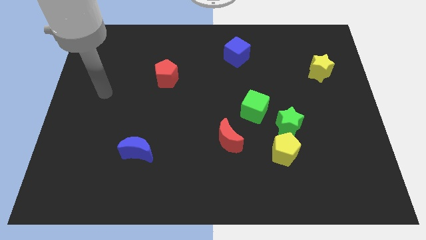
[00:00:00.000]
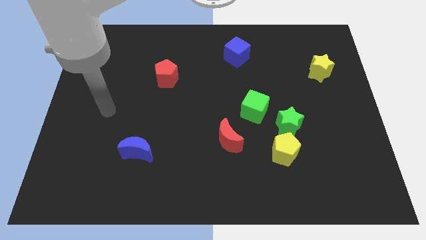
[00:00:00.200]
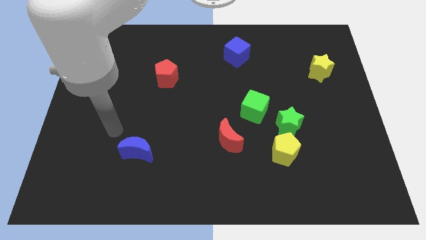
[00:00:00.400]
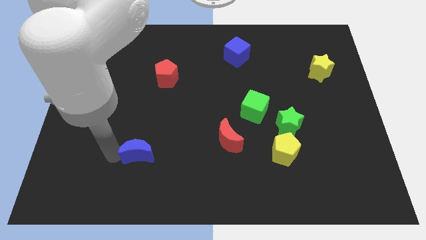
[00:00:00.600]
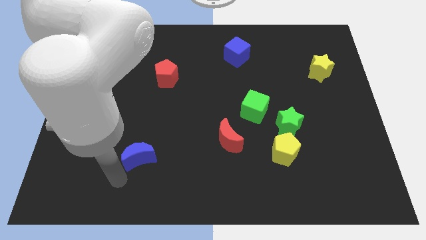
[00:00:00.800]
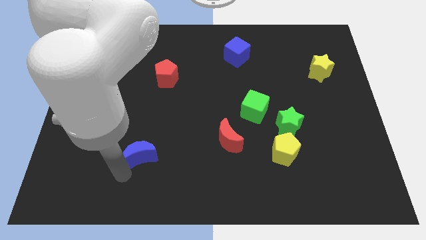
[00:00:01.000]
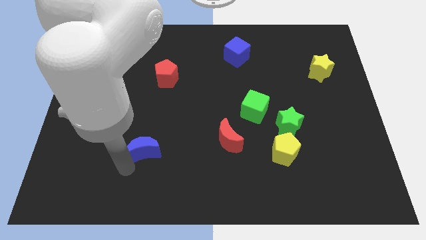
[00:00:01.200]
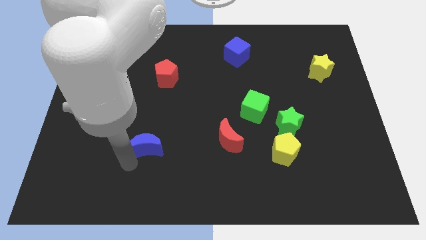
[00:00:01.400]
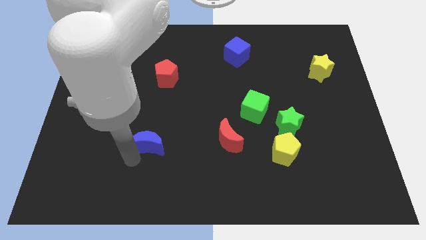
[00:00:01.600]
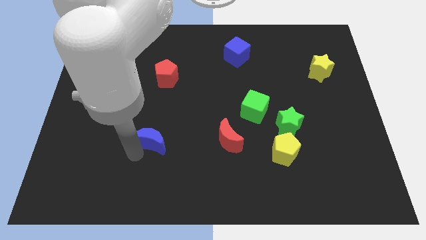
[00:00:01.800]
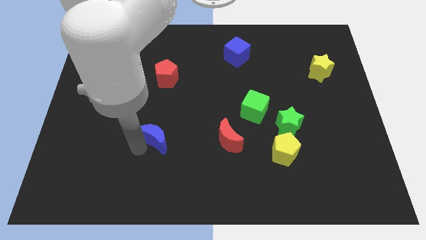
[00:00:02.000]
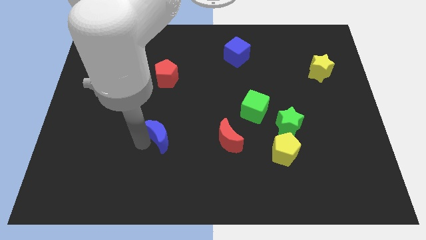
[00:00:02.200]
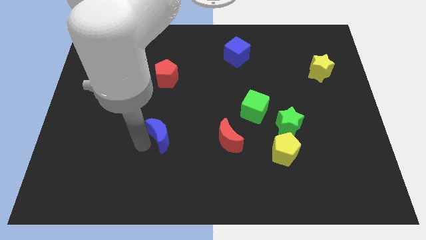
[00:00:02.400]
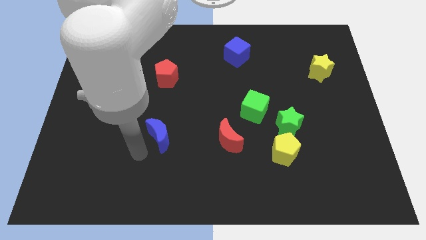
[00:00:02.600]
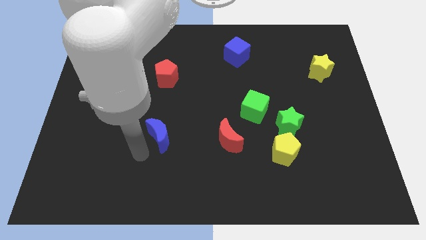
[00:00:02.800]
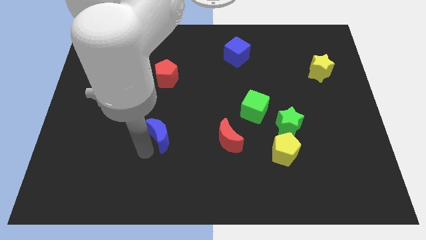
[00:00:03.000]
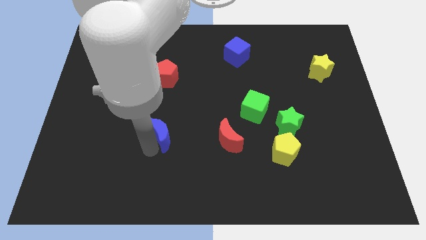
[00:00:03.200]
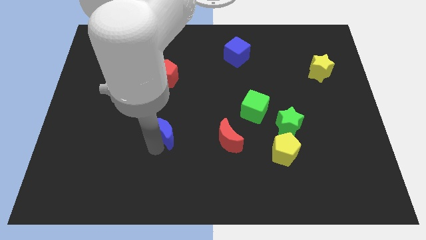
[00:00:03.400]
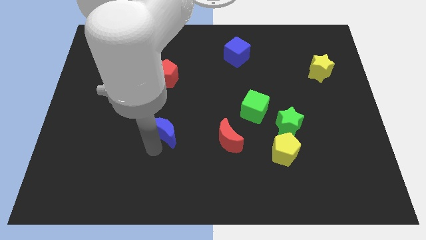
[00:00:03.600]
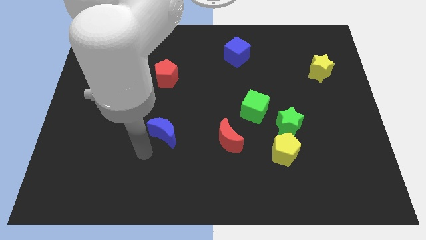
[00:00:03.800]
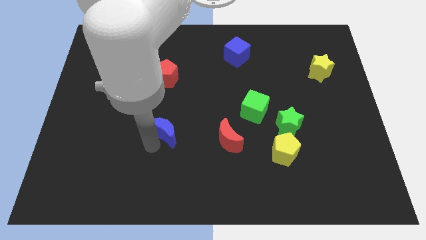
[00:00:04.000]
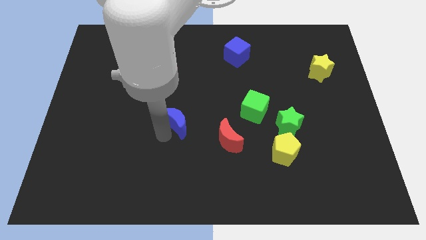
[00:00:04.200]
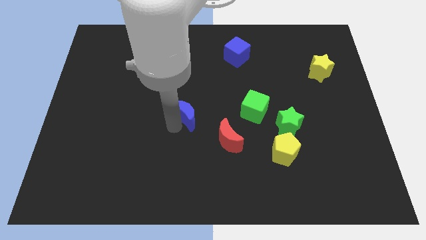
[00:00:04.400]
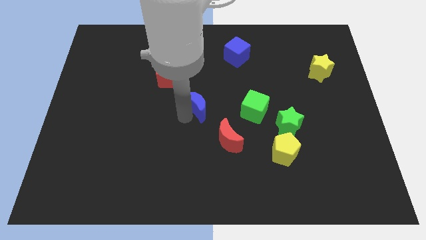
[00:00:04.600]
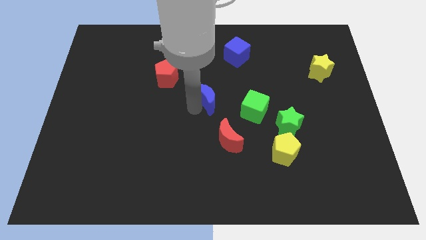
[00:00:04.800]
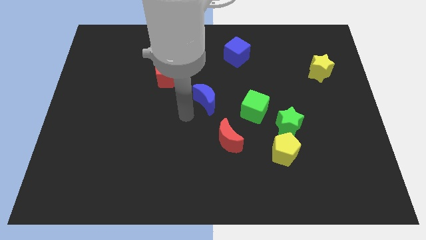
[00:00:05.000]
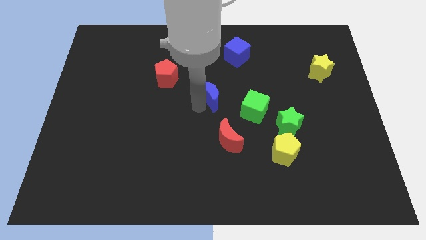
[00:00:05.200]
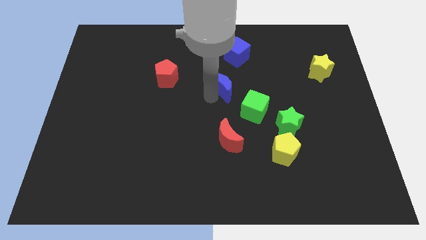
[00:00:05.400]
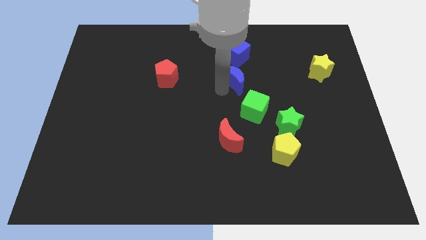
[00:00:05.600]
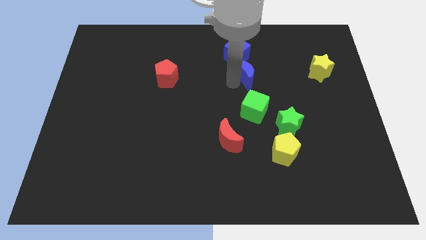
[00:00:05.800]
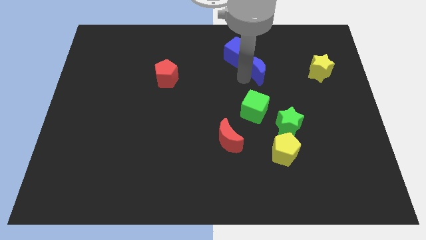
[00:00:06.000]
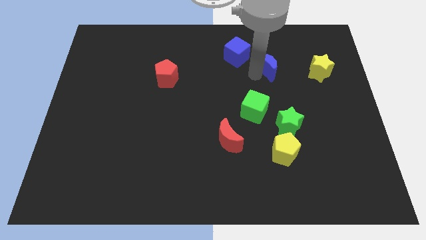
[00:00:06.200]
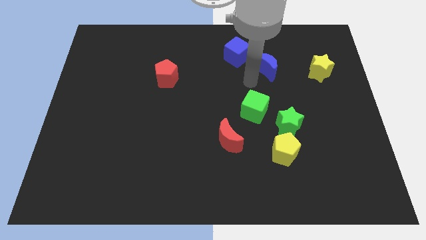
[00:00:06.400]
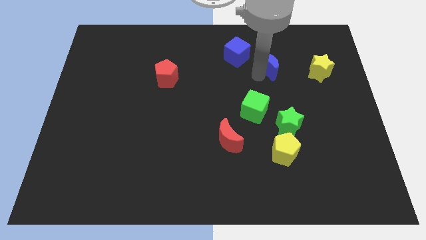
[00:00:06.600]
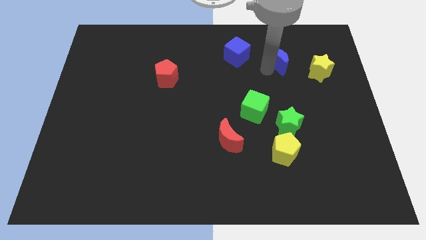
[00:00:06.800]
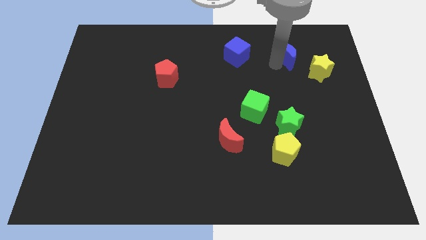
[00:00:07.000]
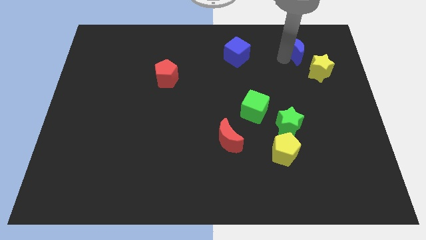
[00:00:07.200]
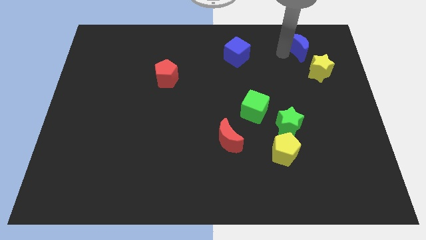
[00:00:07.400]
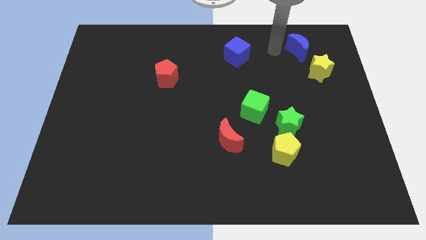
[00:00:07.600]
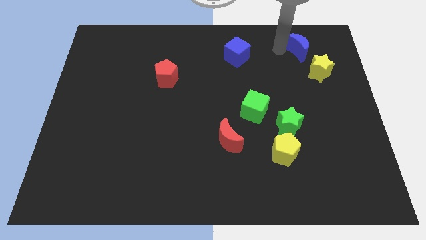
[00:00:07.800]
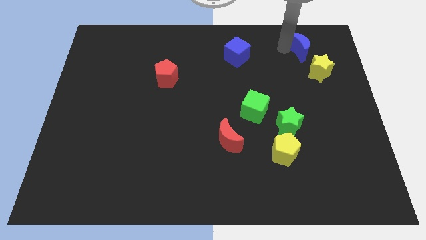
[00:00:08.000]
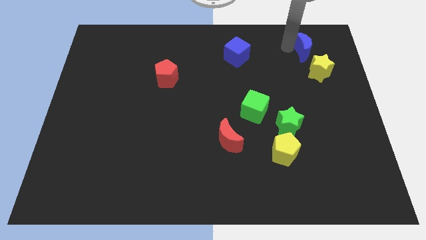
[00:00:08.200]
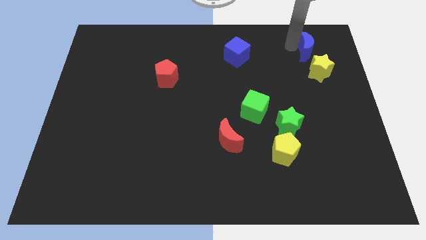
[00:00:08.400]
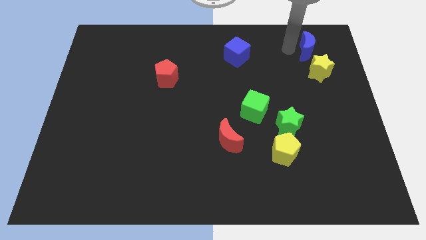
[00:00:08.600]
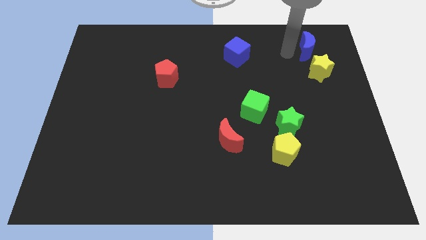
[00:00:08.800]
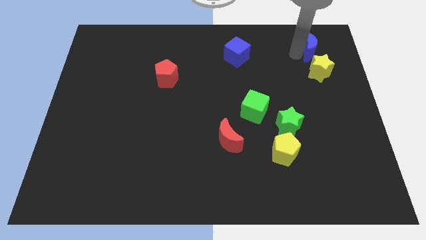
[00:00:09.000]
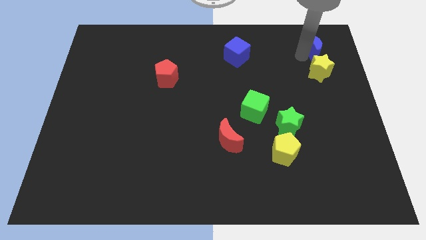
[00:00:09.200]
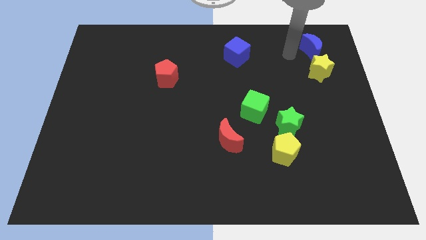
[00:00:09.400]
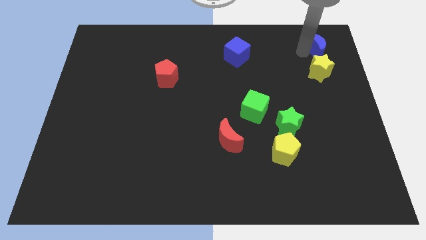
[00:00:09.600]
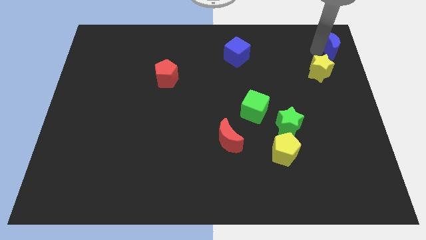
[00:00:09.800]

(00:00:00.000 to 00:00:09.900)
push the blue moon to the top right of the board

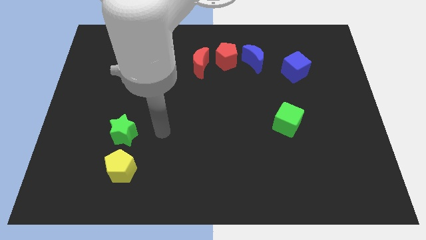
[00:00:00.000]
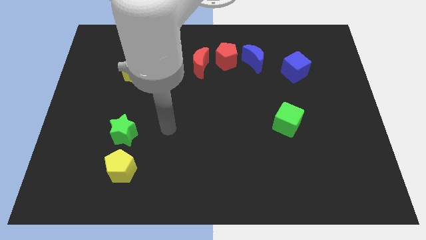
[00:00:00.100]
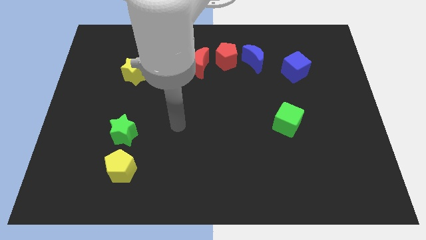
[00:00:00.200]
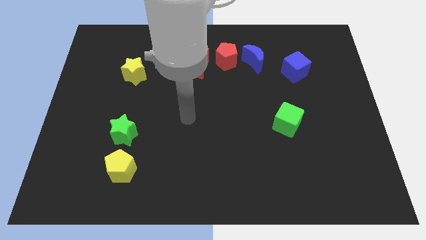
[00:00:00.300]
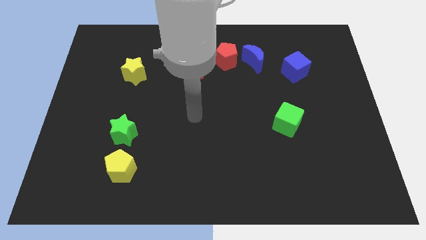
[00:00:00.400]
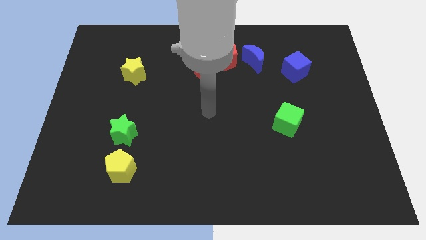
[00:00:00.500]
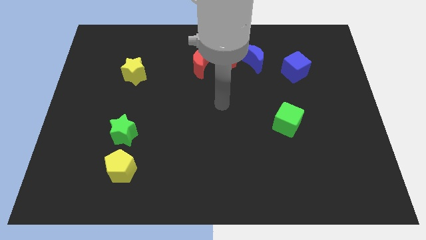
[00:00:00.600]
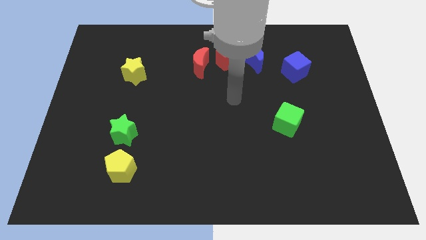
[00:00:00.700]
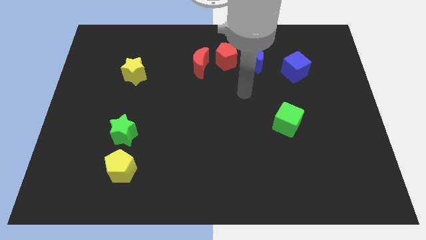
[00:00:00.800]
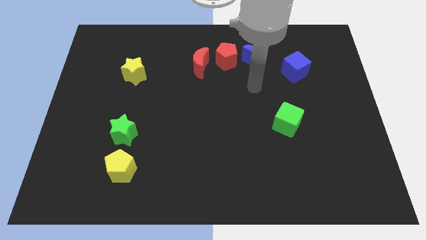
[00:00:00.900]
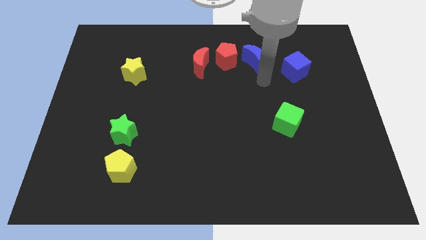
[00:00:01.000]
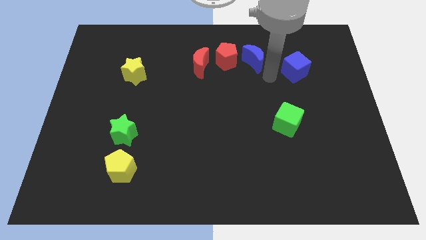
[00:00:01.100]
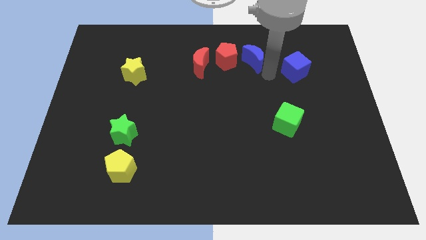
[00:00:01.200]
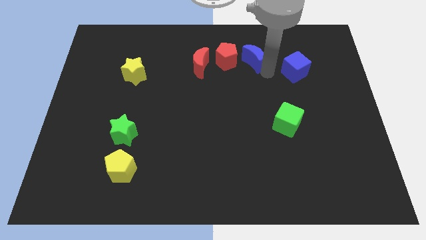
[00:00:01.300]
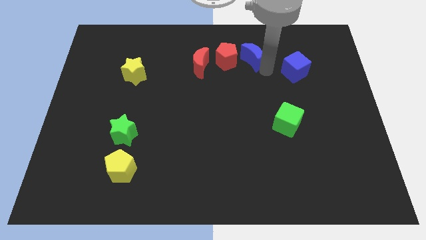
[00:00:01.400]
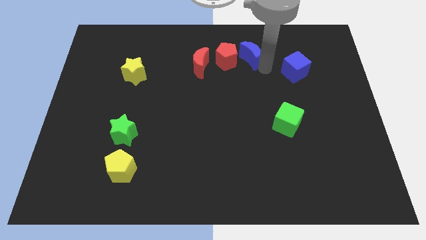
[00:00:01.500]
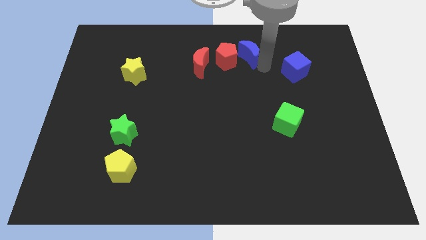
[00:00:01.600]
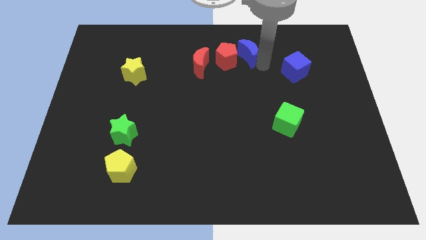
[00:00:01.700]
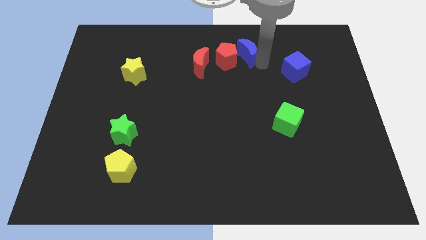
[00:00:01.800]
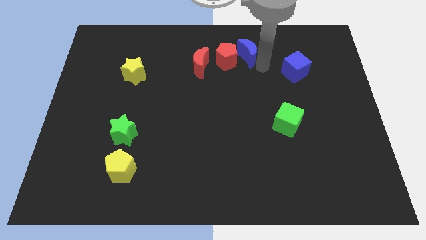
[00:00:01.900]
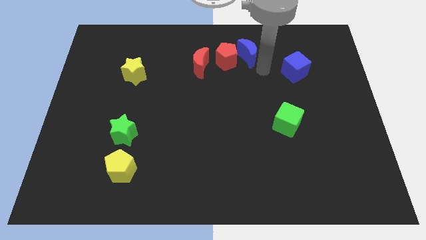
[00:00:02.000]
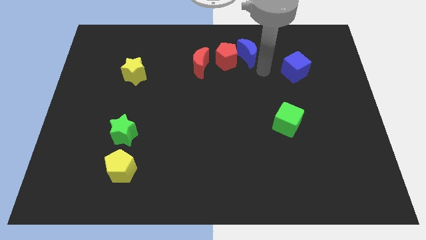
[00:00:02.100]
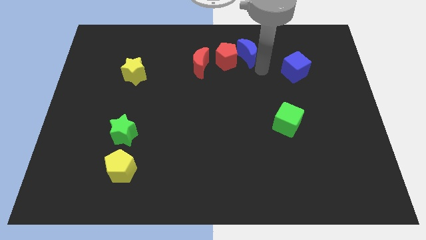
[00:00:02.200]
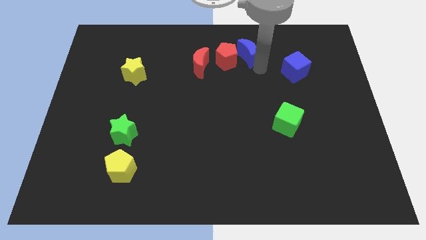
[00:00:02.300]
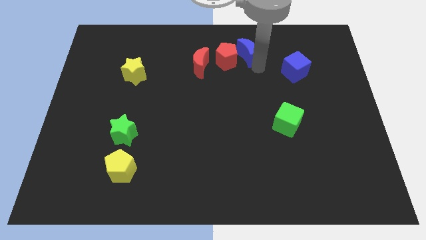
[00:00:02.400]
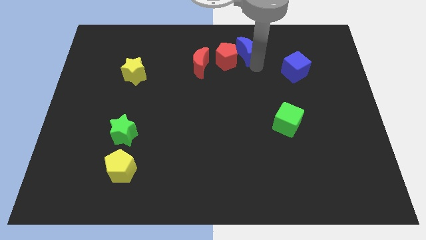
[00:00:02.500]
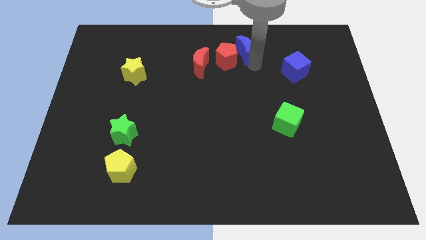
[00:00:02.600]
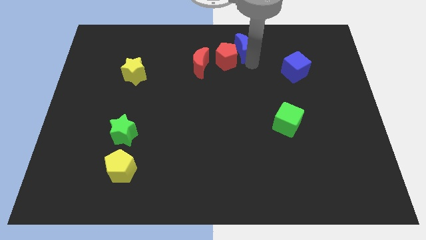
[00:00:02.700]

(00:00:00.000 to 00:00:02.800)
move the blue moon to the towards your base
